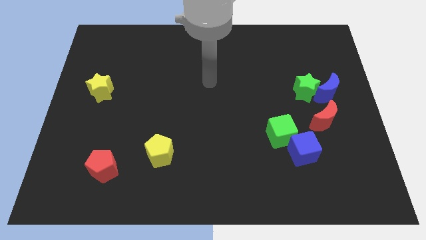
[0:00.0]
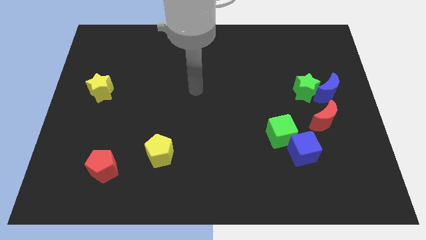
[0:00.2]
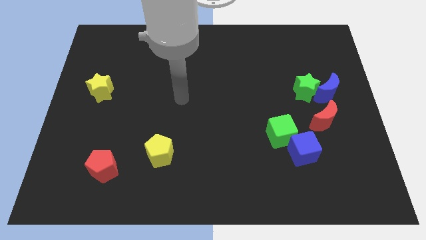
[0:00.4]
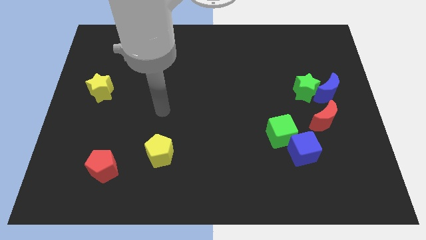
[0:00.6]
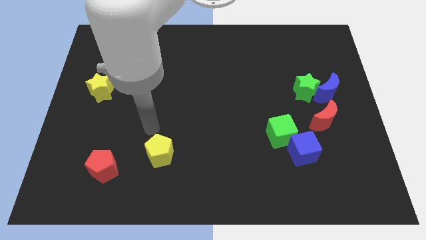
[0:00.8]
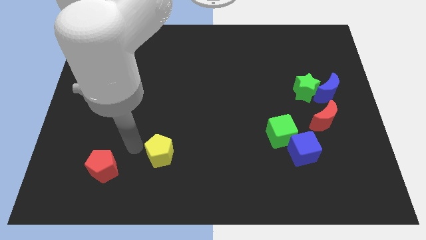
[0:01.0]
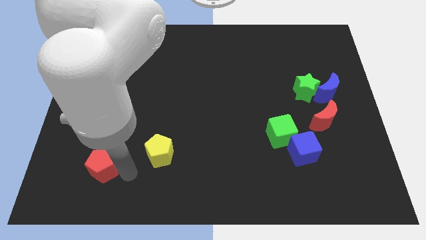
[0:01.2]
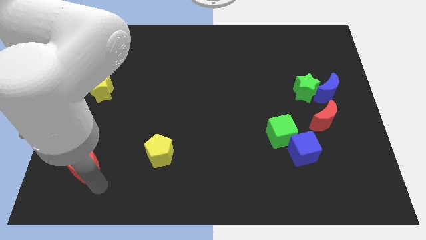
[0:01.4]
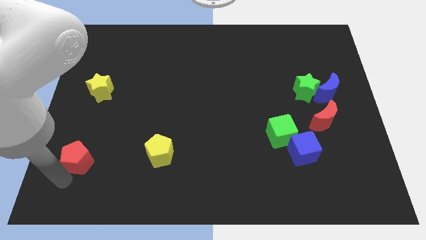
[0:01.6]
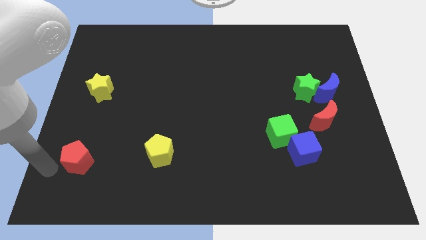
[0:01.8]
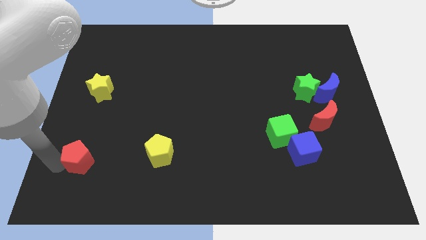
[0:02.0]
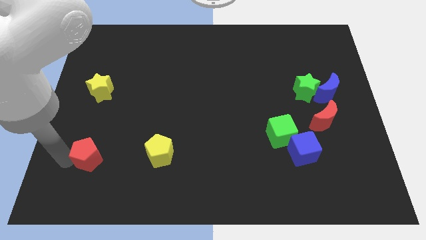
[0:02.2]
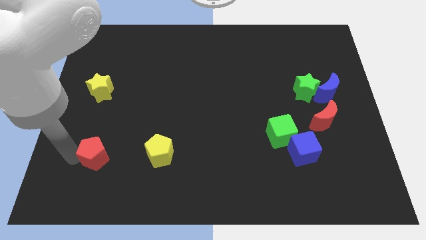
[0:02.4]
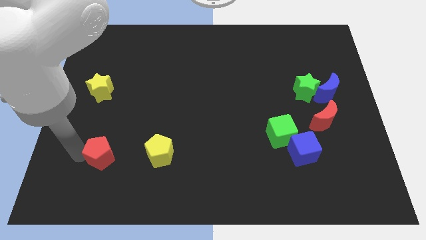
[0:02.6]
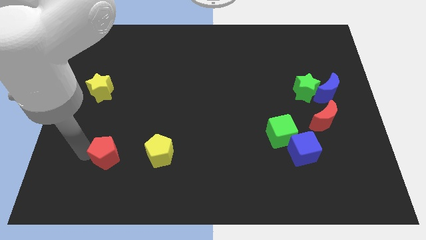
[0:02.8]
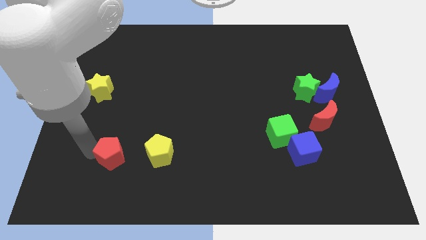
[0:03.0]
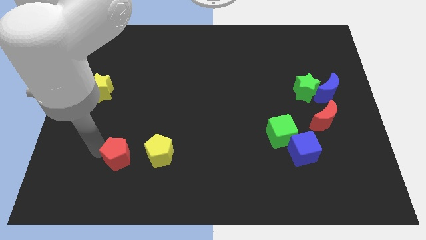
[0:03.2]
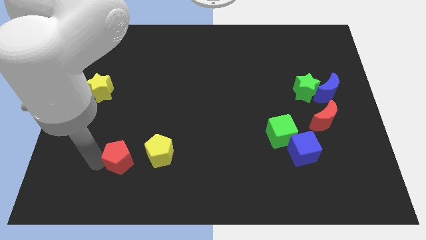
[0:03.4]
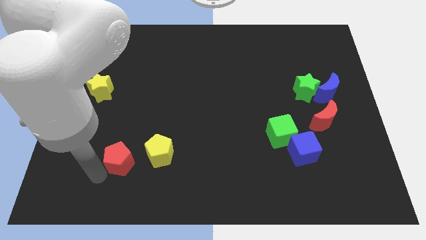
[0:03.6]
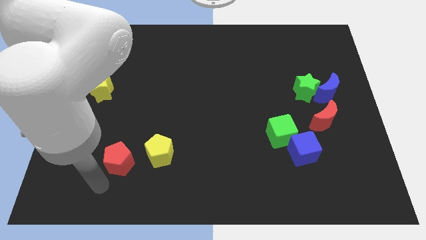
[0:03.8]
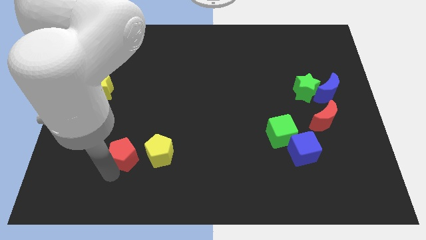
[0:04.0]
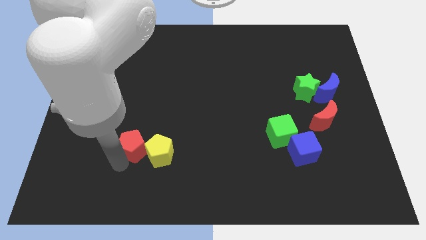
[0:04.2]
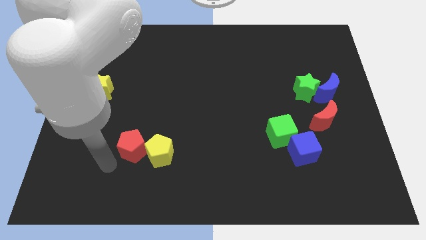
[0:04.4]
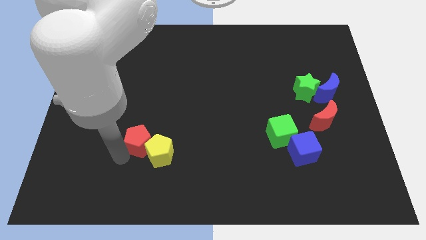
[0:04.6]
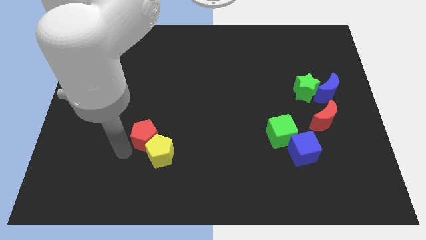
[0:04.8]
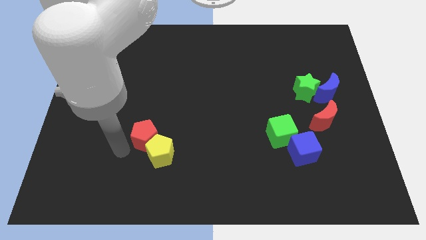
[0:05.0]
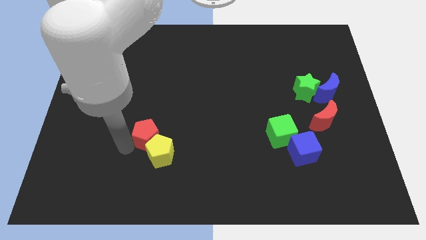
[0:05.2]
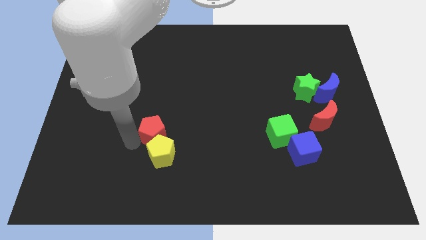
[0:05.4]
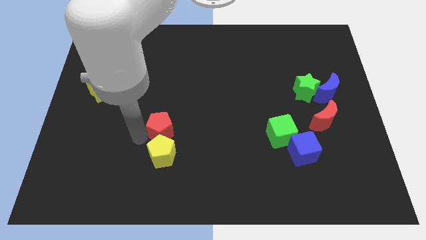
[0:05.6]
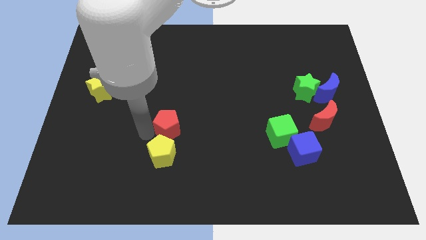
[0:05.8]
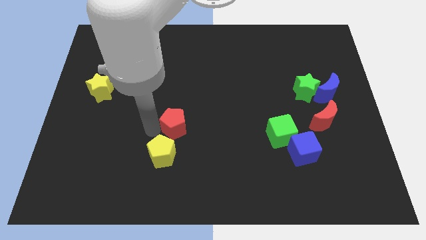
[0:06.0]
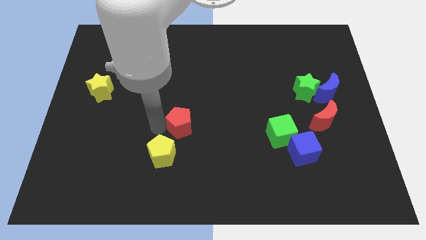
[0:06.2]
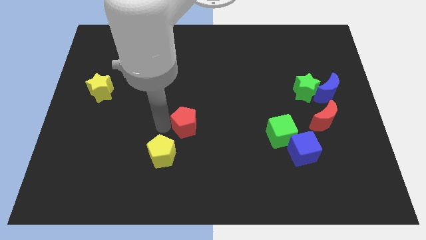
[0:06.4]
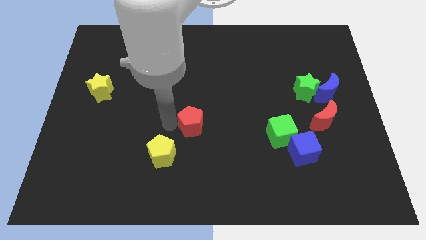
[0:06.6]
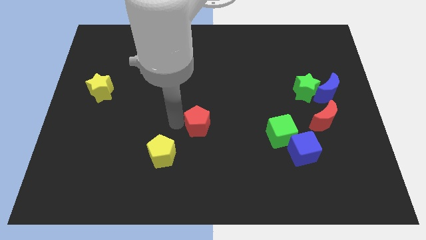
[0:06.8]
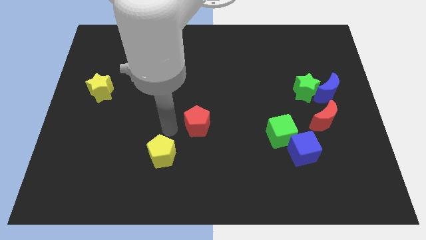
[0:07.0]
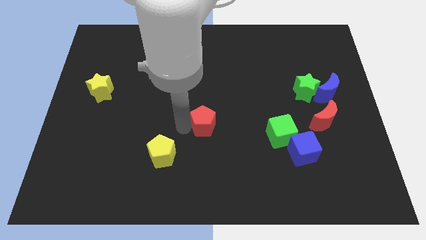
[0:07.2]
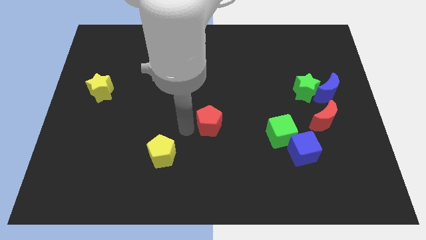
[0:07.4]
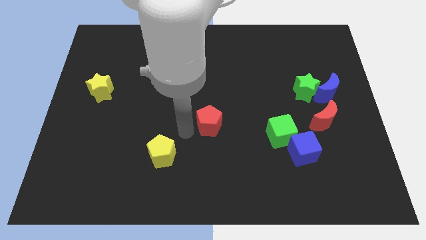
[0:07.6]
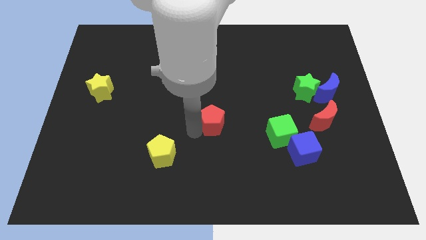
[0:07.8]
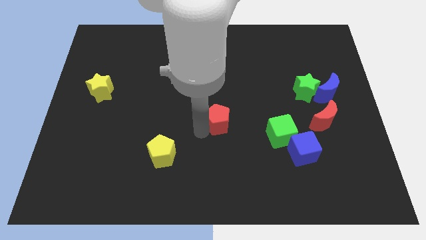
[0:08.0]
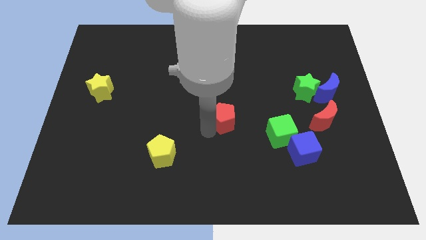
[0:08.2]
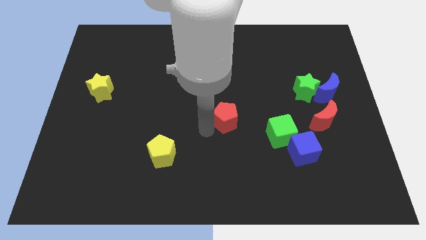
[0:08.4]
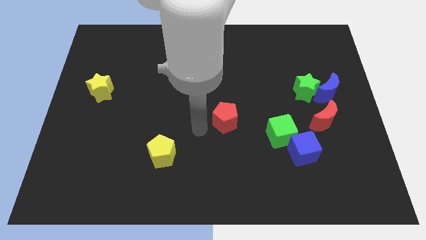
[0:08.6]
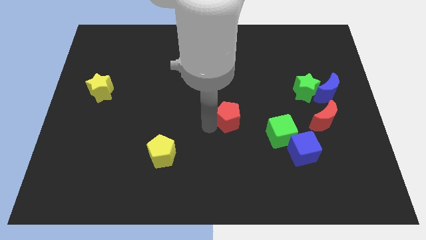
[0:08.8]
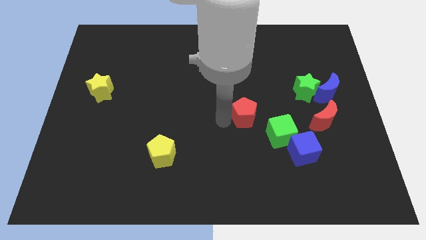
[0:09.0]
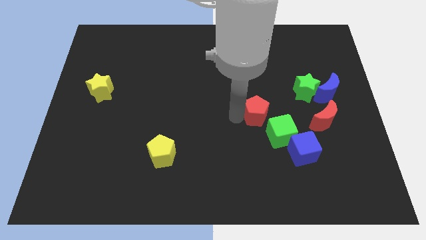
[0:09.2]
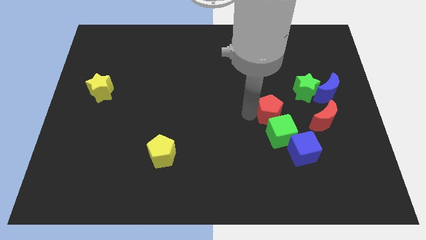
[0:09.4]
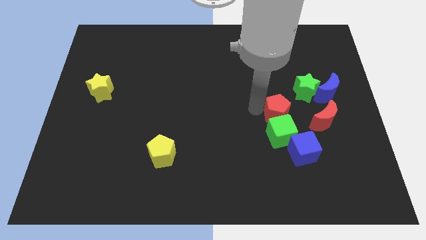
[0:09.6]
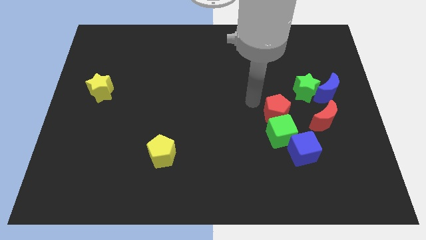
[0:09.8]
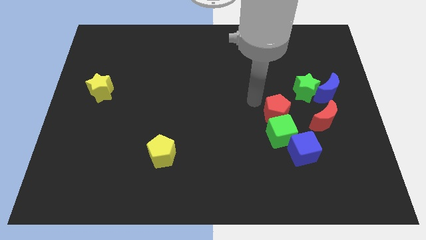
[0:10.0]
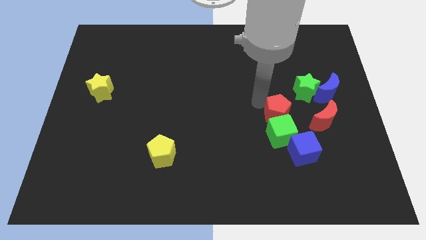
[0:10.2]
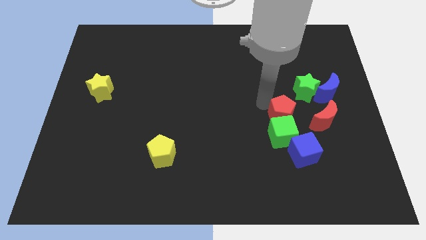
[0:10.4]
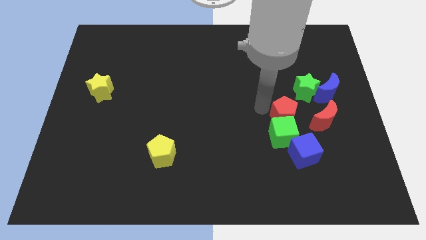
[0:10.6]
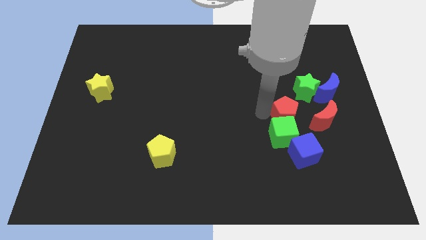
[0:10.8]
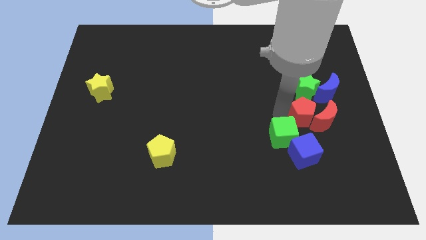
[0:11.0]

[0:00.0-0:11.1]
push the red pentagon close to the red moon

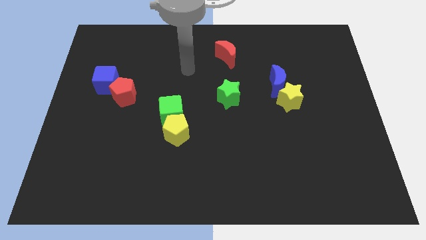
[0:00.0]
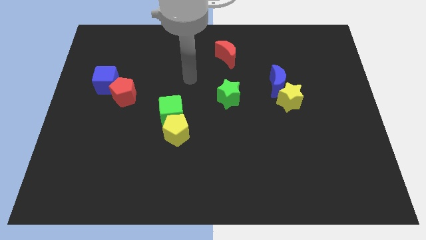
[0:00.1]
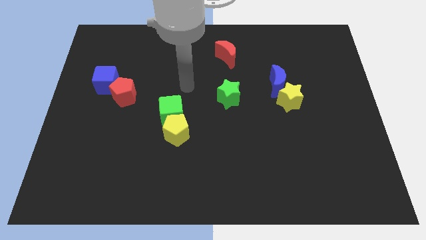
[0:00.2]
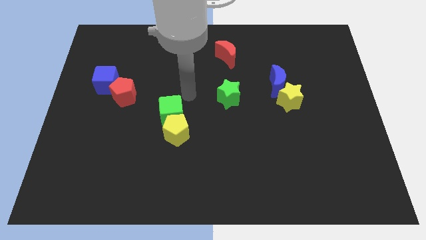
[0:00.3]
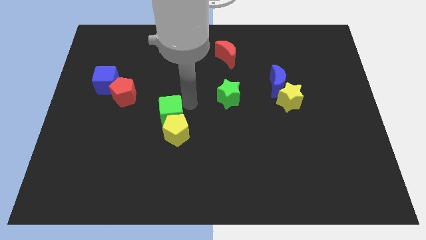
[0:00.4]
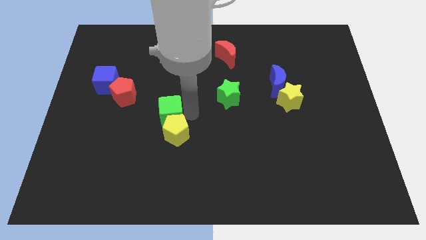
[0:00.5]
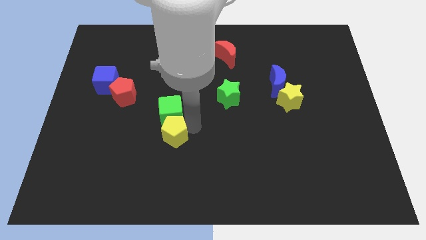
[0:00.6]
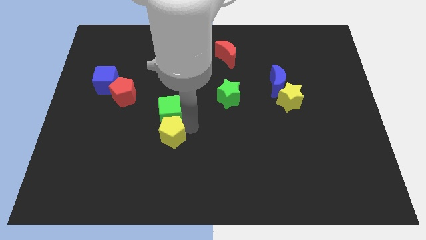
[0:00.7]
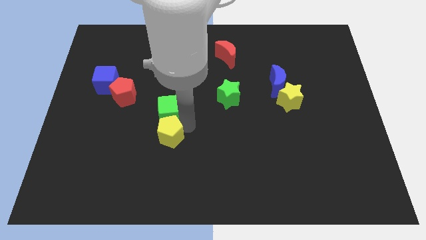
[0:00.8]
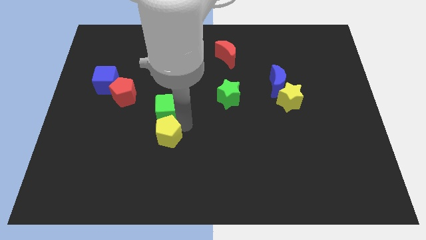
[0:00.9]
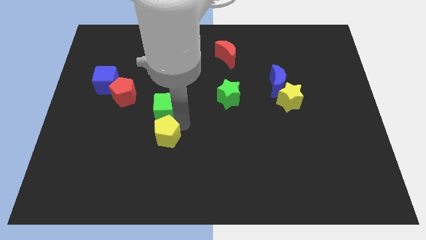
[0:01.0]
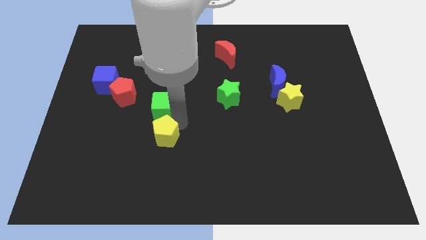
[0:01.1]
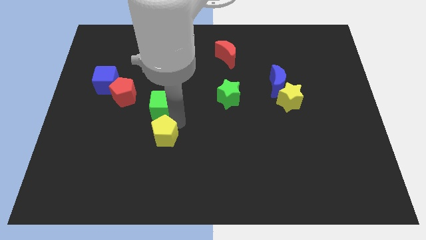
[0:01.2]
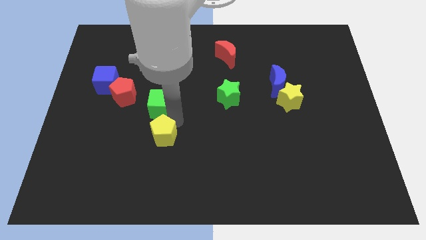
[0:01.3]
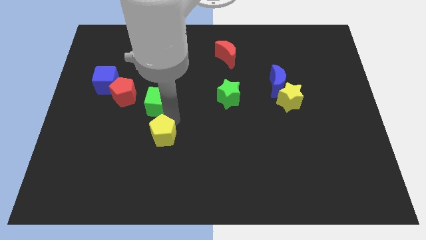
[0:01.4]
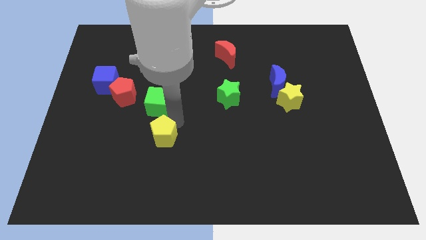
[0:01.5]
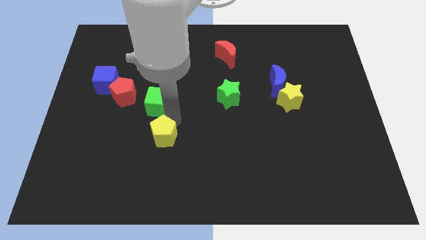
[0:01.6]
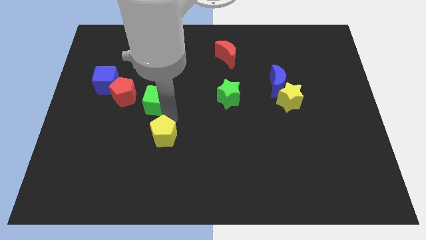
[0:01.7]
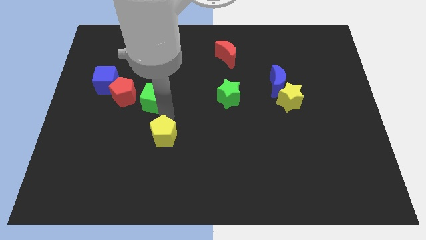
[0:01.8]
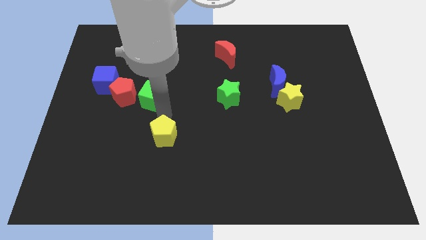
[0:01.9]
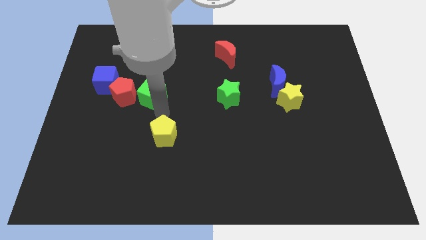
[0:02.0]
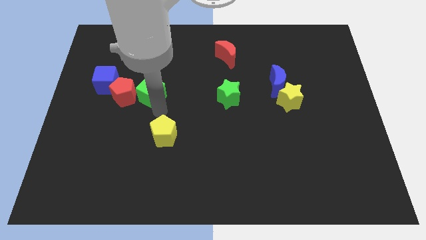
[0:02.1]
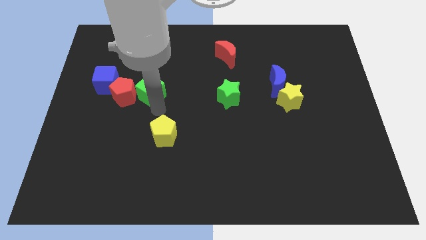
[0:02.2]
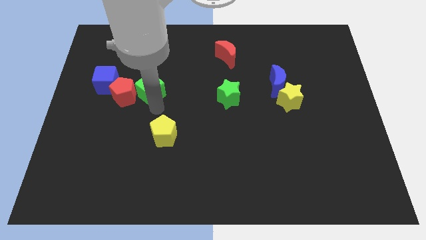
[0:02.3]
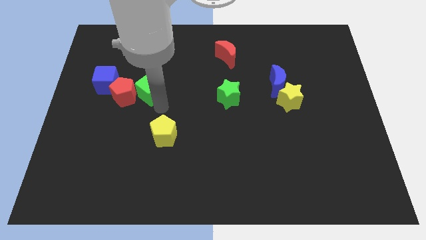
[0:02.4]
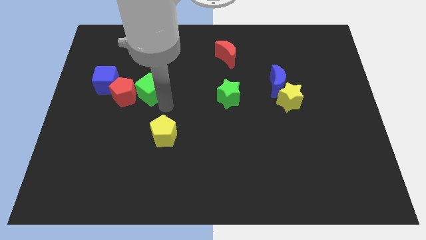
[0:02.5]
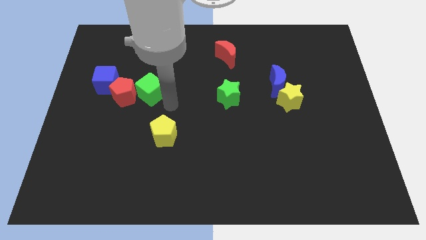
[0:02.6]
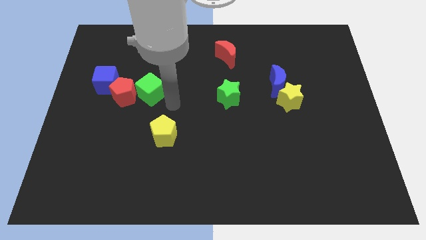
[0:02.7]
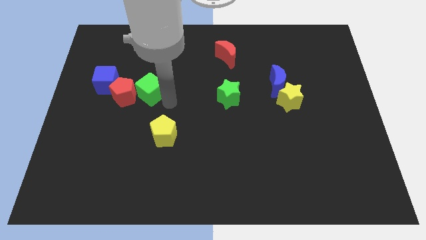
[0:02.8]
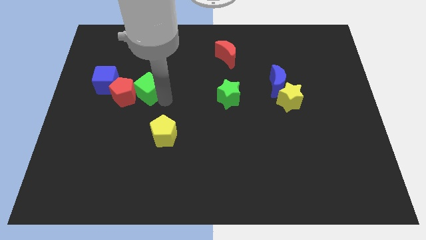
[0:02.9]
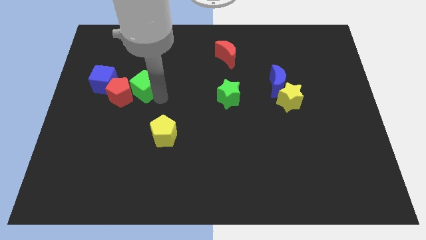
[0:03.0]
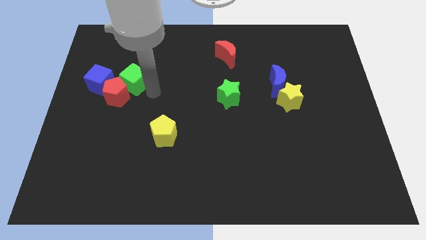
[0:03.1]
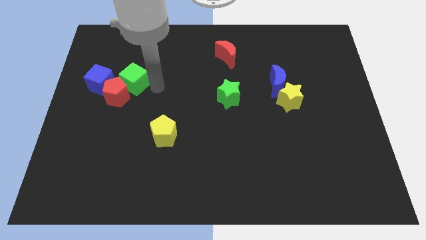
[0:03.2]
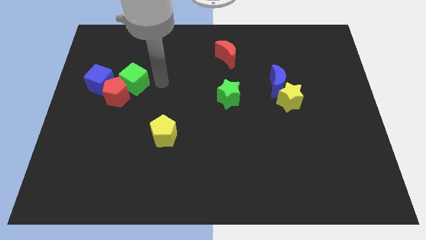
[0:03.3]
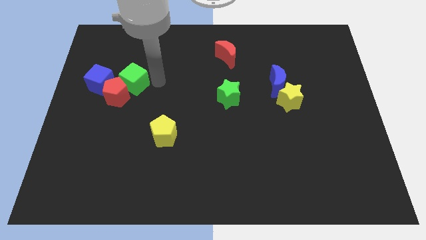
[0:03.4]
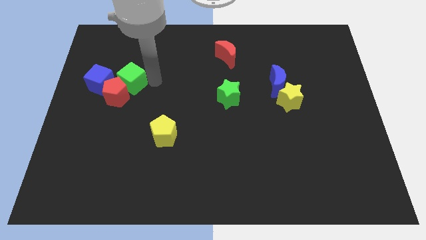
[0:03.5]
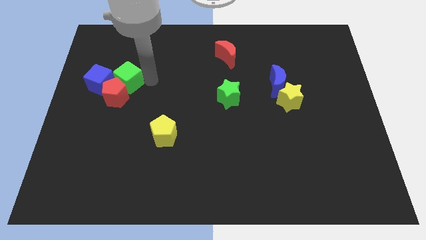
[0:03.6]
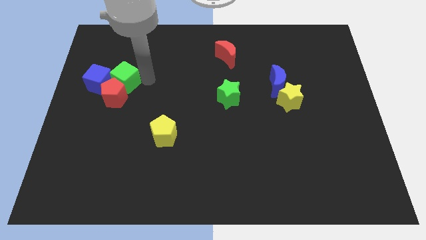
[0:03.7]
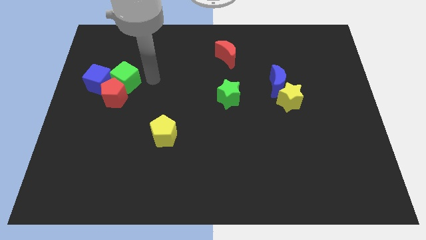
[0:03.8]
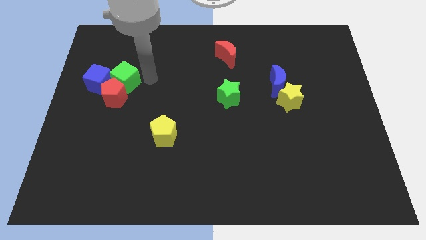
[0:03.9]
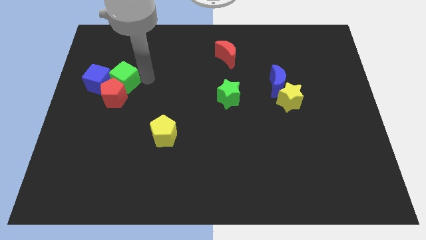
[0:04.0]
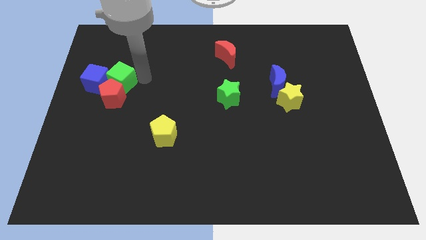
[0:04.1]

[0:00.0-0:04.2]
slide the green cube towards the blue cube
